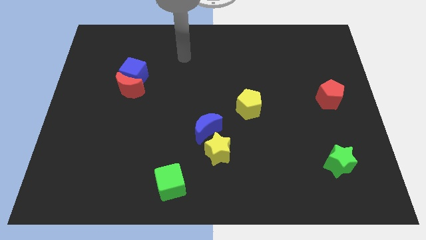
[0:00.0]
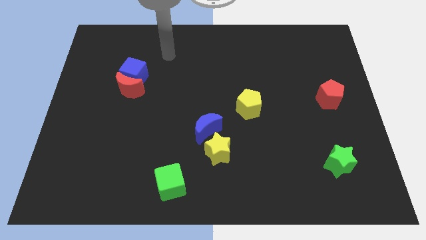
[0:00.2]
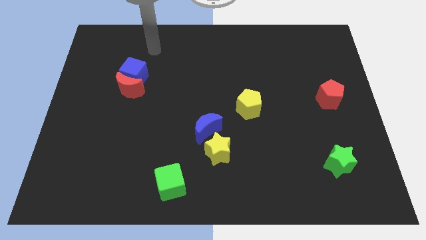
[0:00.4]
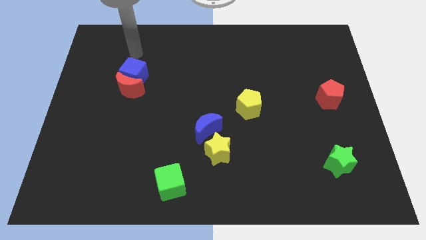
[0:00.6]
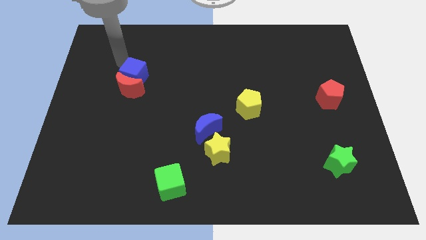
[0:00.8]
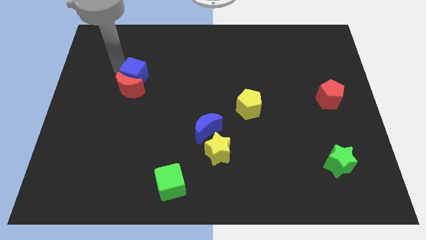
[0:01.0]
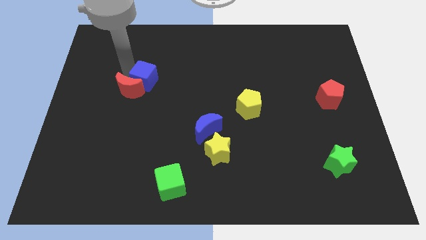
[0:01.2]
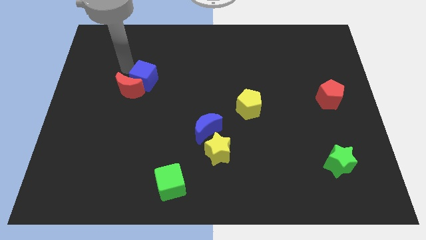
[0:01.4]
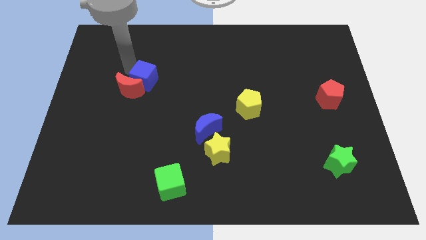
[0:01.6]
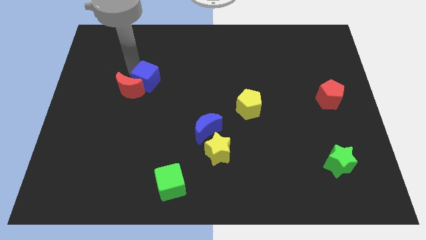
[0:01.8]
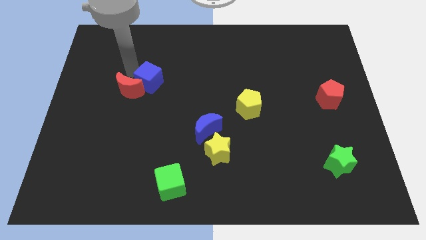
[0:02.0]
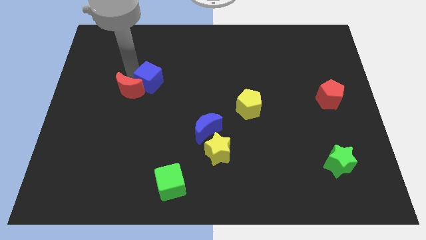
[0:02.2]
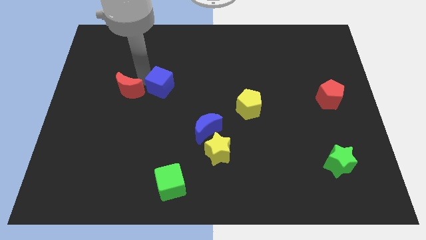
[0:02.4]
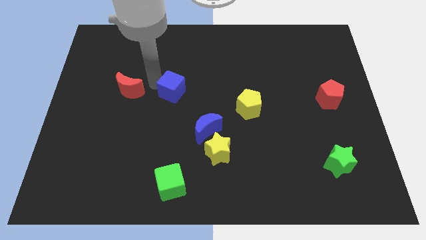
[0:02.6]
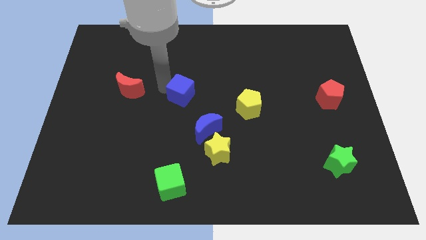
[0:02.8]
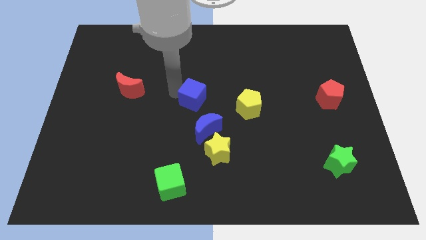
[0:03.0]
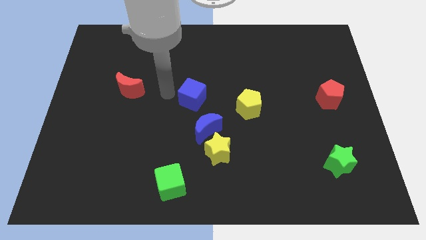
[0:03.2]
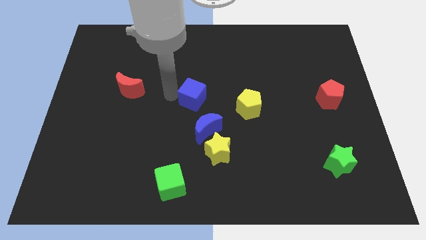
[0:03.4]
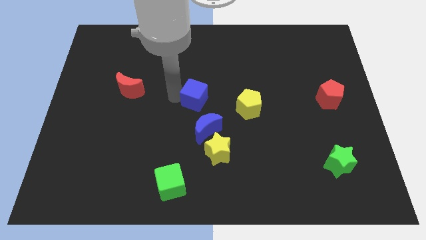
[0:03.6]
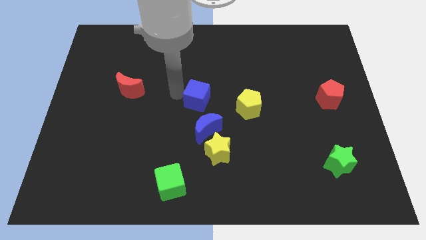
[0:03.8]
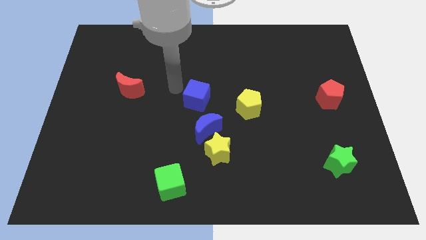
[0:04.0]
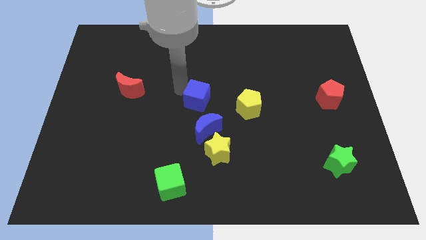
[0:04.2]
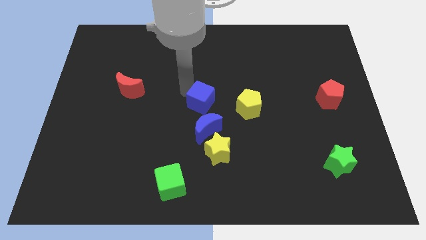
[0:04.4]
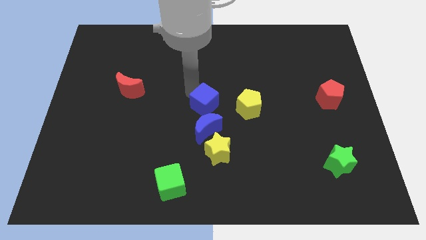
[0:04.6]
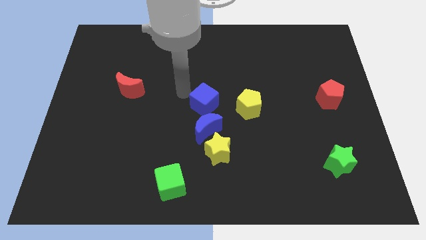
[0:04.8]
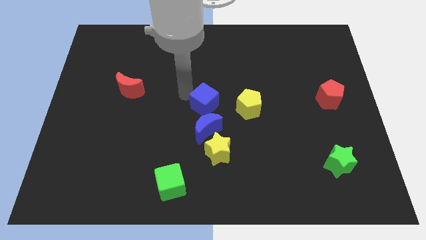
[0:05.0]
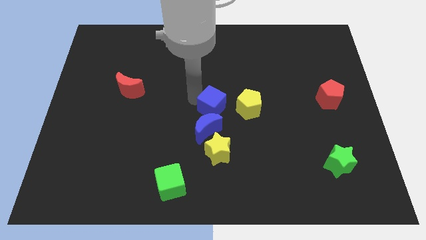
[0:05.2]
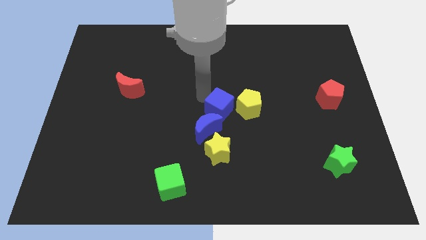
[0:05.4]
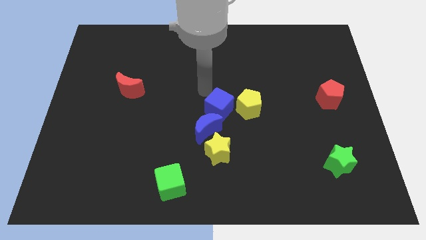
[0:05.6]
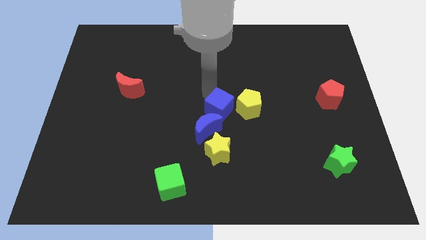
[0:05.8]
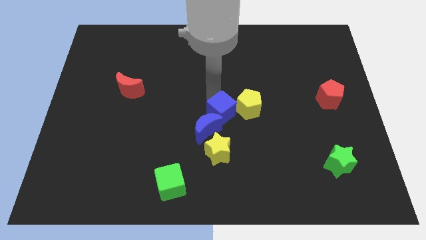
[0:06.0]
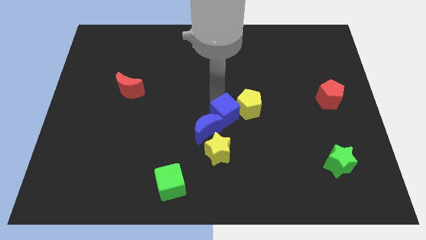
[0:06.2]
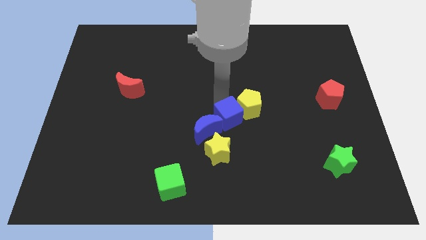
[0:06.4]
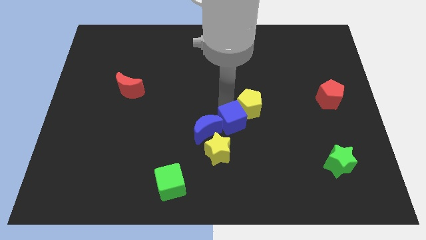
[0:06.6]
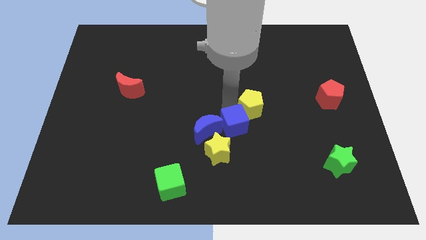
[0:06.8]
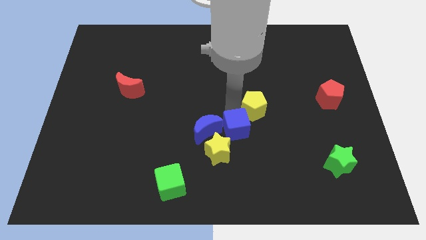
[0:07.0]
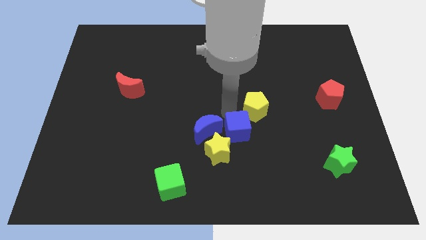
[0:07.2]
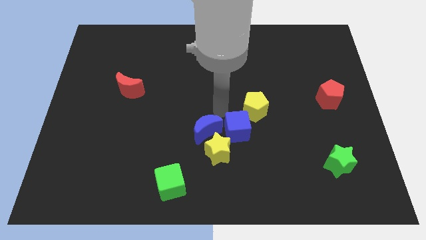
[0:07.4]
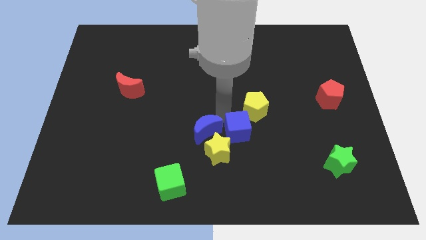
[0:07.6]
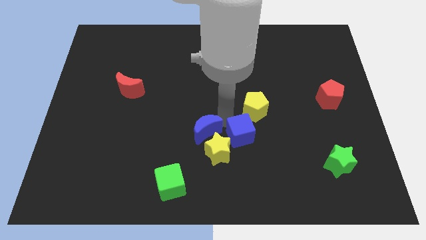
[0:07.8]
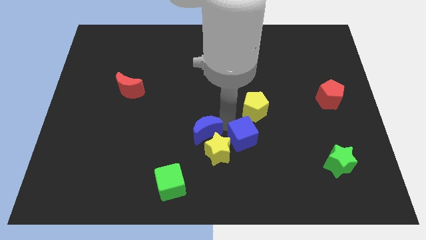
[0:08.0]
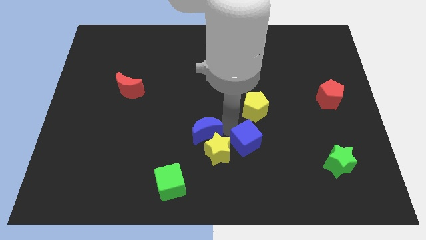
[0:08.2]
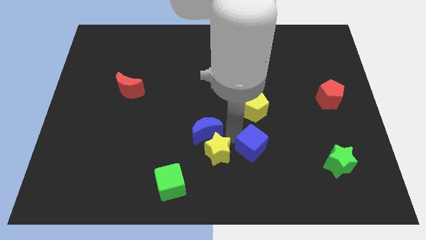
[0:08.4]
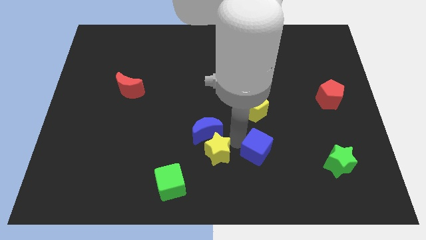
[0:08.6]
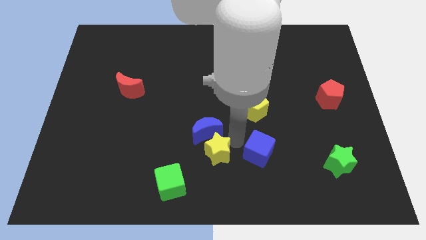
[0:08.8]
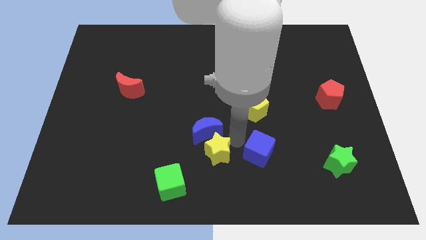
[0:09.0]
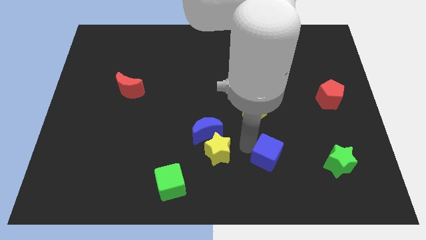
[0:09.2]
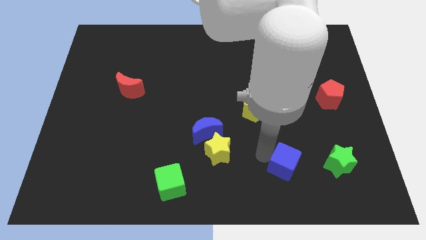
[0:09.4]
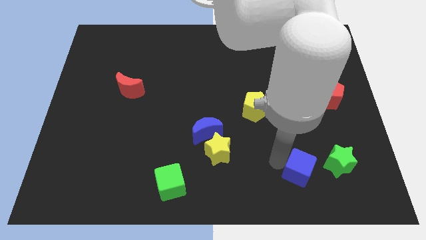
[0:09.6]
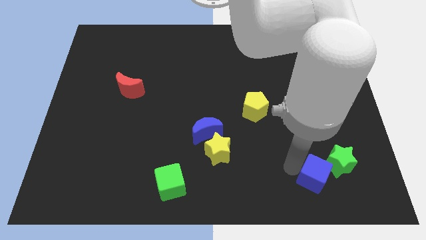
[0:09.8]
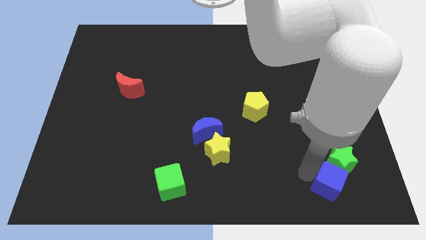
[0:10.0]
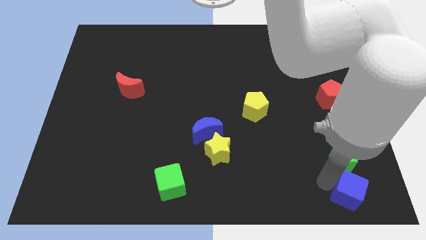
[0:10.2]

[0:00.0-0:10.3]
push the blue cube to the bottom right
